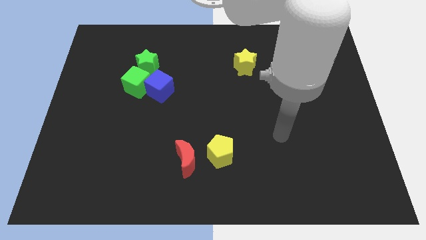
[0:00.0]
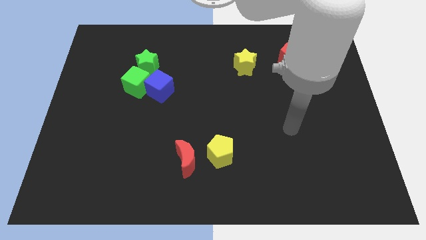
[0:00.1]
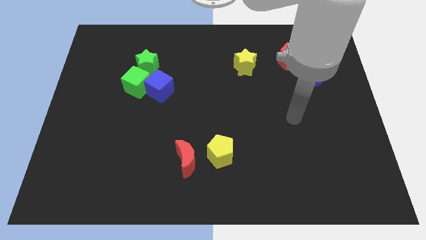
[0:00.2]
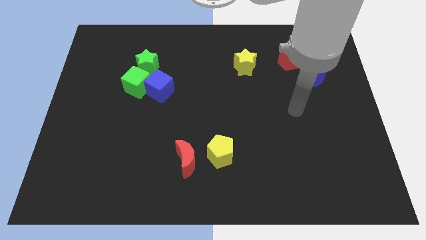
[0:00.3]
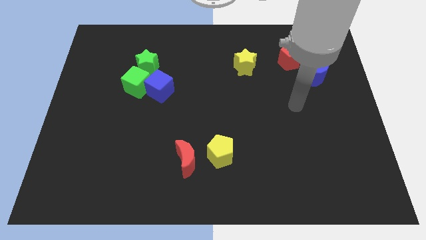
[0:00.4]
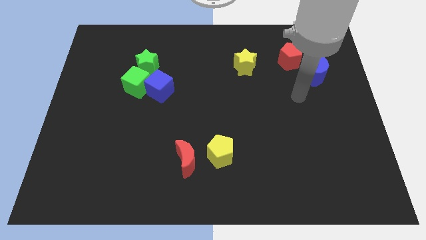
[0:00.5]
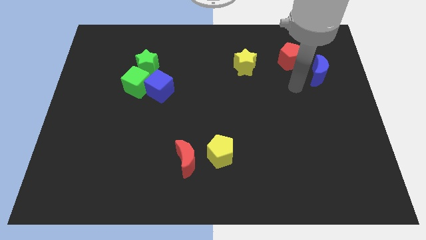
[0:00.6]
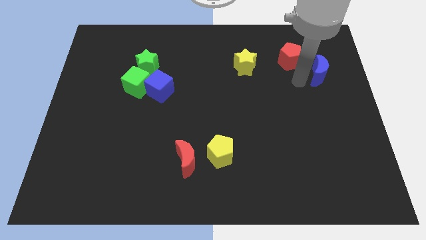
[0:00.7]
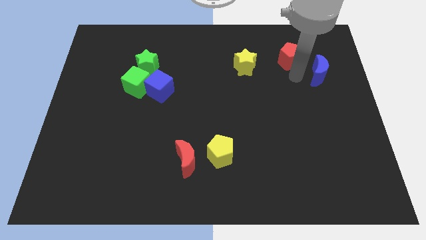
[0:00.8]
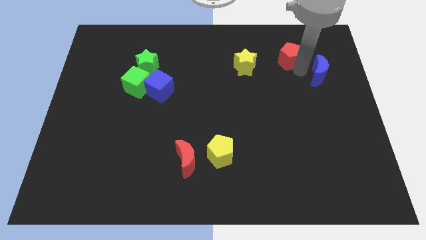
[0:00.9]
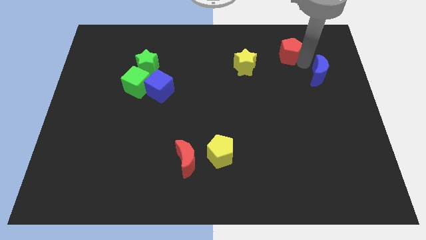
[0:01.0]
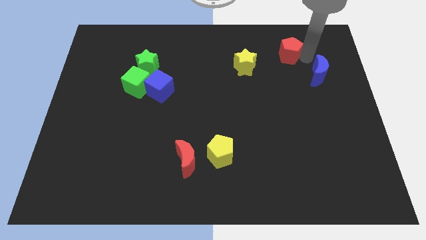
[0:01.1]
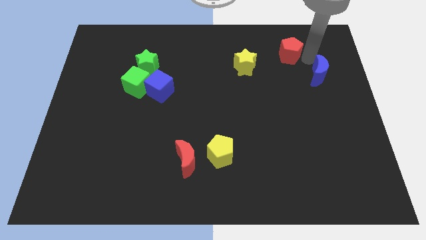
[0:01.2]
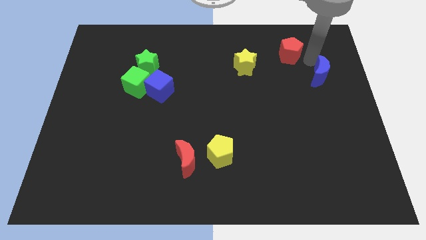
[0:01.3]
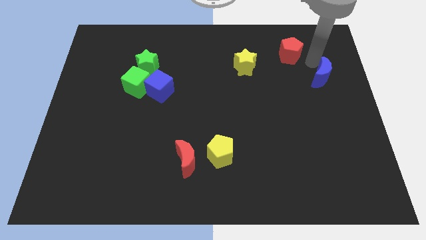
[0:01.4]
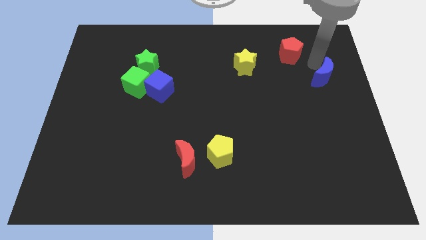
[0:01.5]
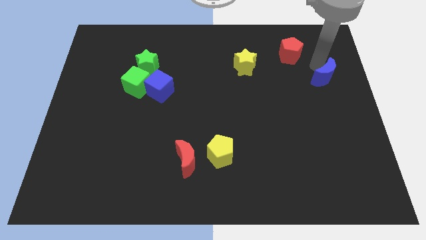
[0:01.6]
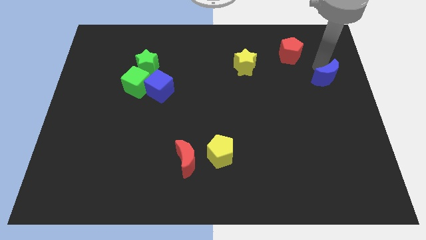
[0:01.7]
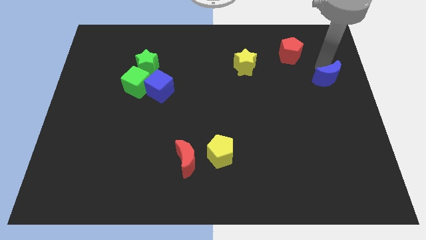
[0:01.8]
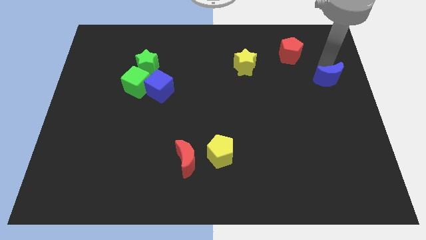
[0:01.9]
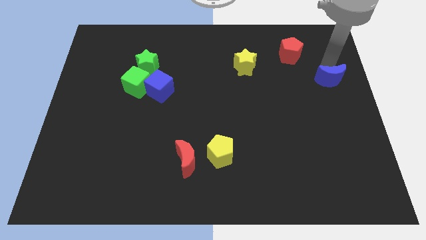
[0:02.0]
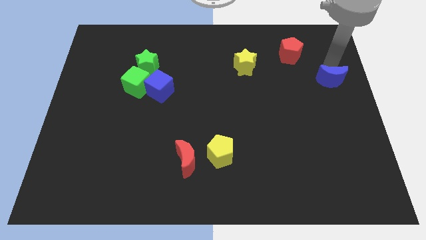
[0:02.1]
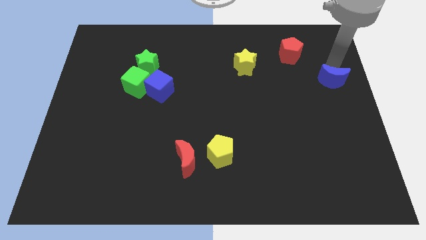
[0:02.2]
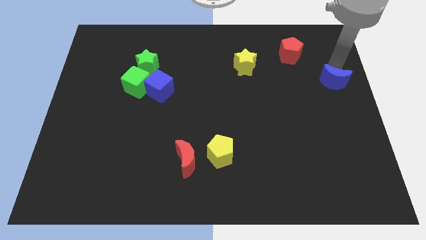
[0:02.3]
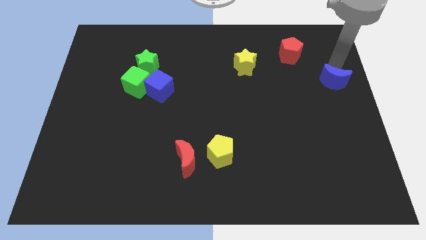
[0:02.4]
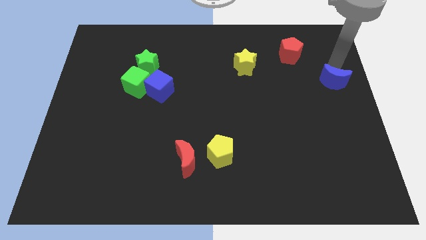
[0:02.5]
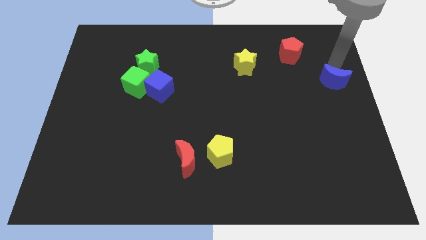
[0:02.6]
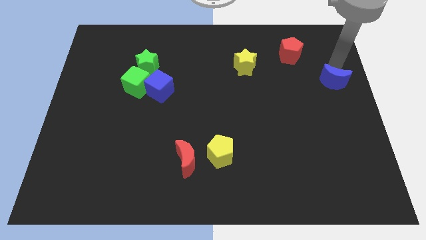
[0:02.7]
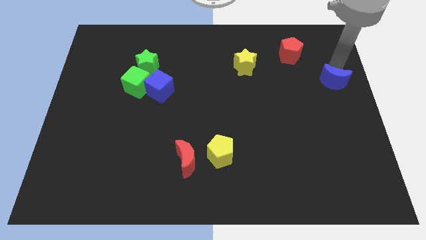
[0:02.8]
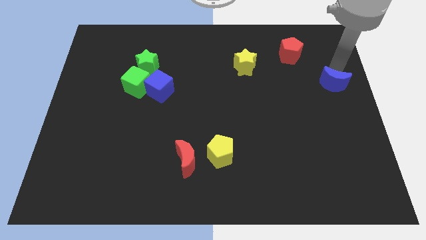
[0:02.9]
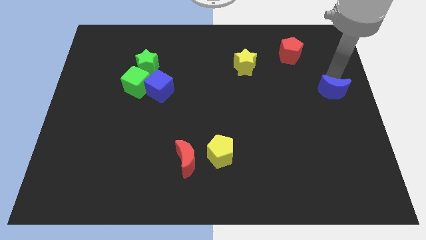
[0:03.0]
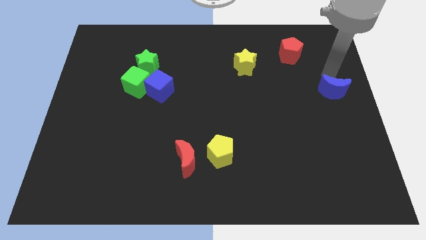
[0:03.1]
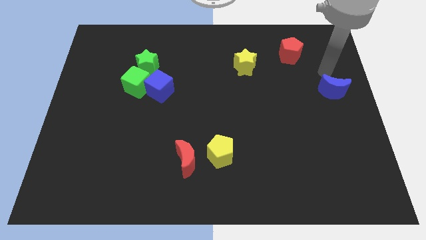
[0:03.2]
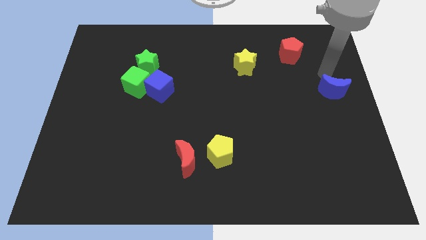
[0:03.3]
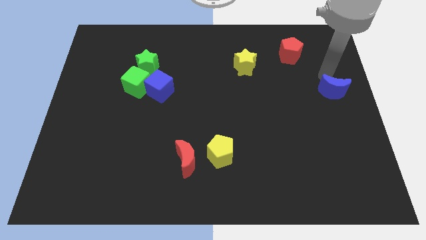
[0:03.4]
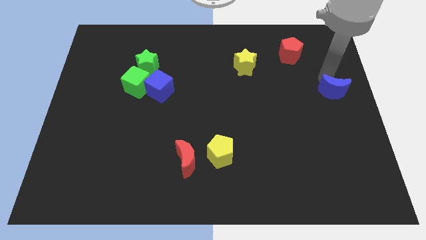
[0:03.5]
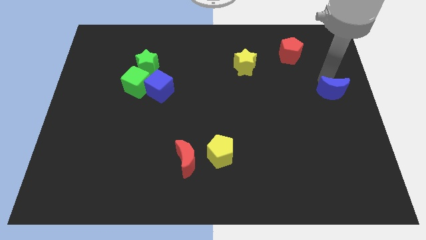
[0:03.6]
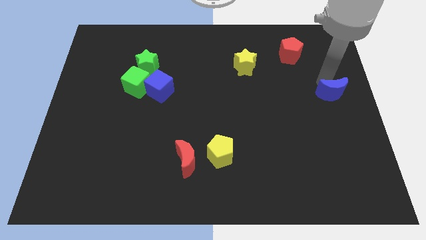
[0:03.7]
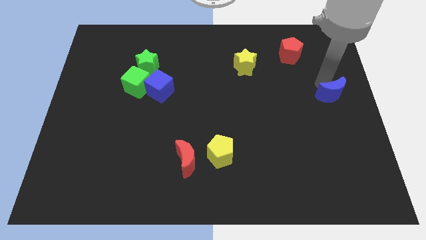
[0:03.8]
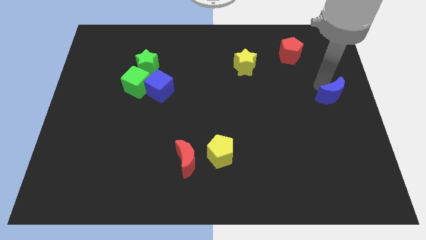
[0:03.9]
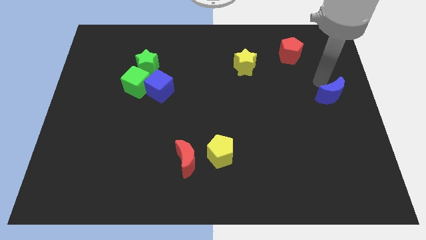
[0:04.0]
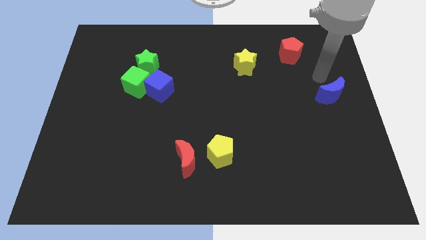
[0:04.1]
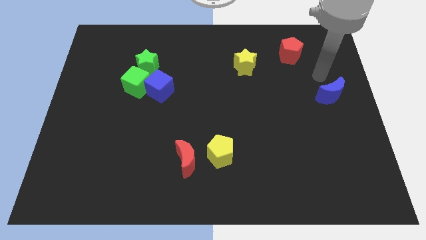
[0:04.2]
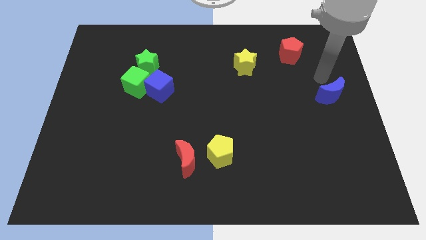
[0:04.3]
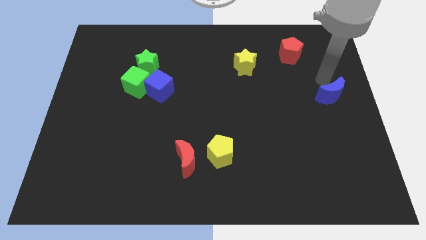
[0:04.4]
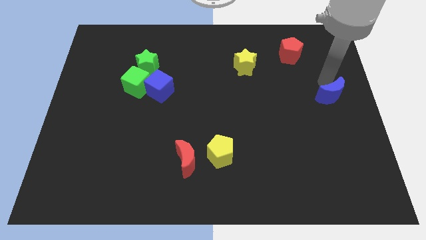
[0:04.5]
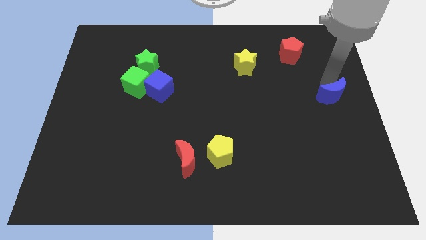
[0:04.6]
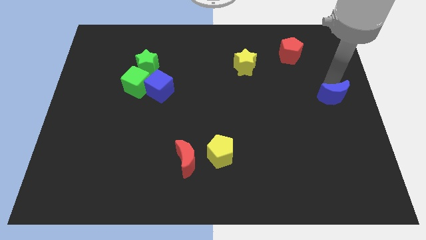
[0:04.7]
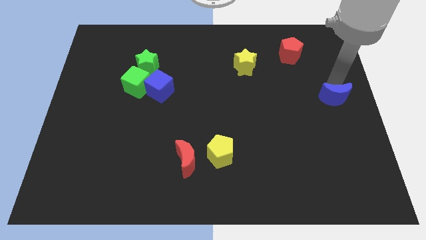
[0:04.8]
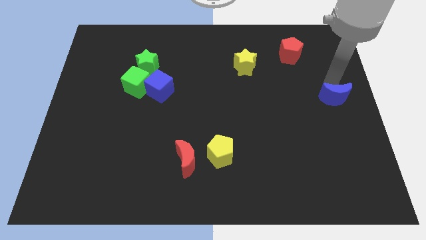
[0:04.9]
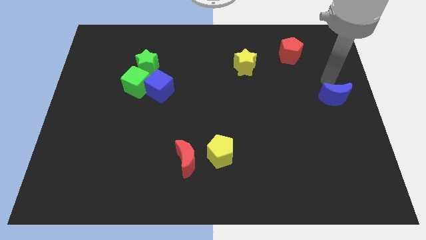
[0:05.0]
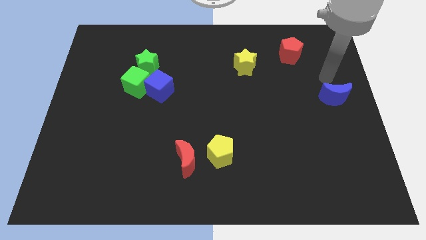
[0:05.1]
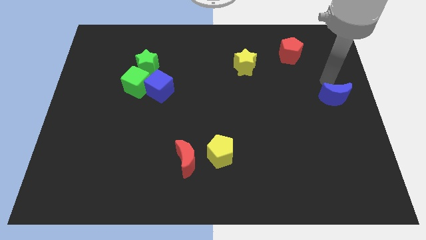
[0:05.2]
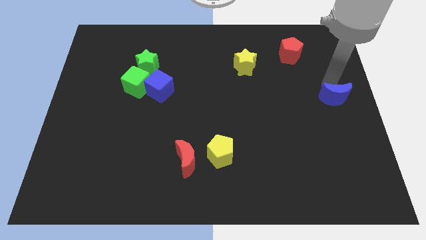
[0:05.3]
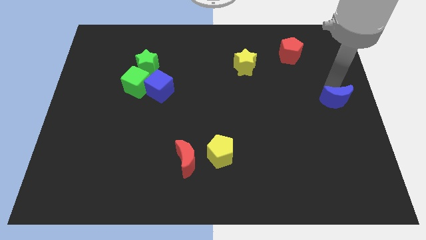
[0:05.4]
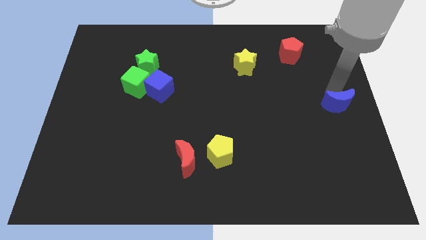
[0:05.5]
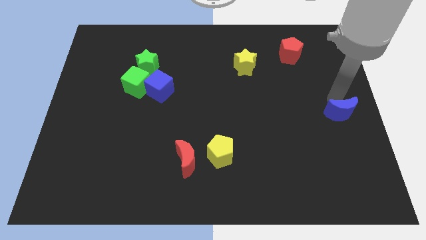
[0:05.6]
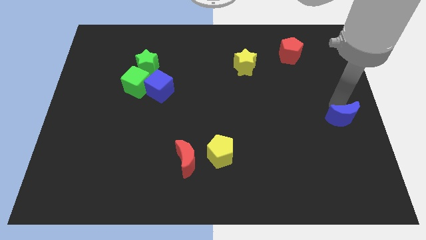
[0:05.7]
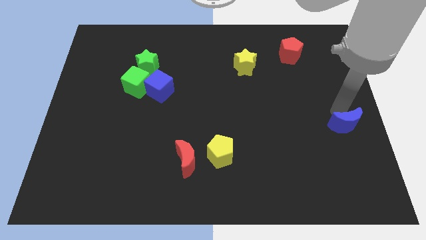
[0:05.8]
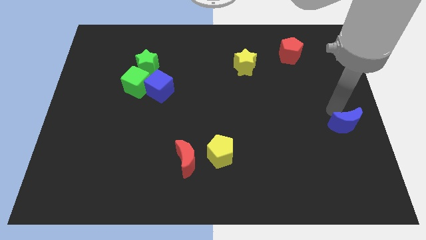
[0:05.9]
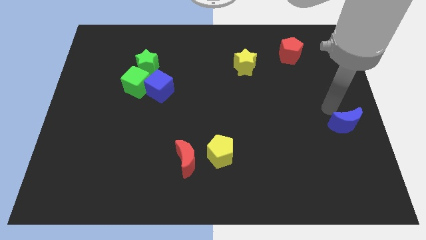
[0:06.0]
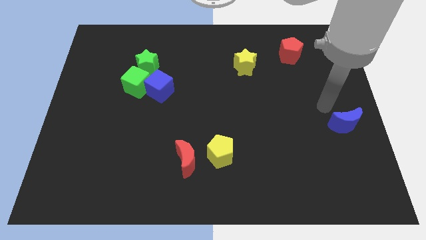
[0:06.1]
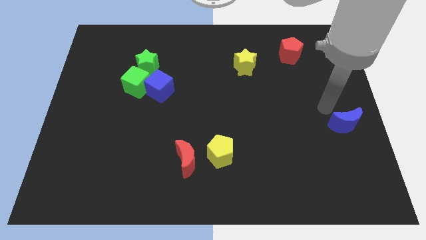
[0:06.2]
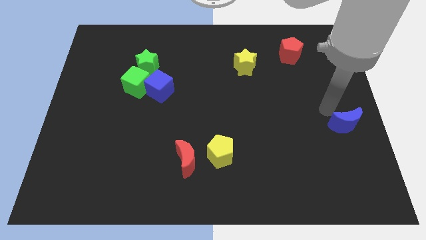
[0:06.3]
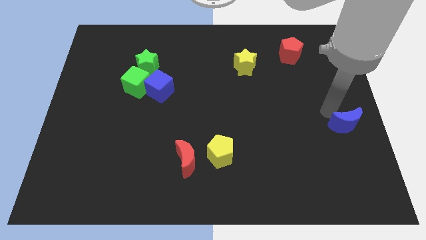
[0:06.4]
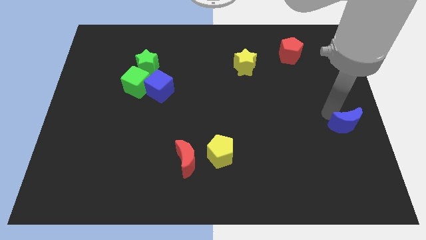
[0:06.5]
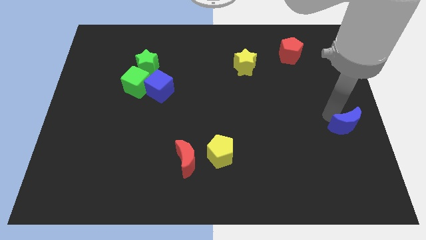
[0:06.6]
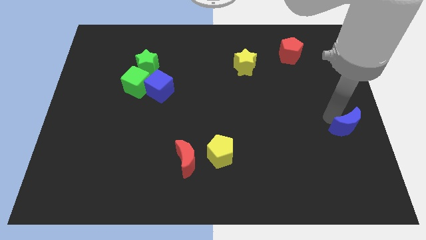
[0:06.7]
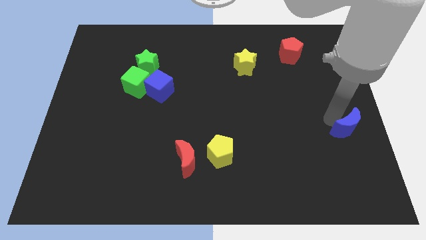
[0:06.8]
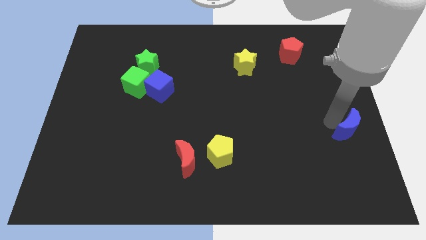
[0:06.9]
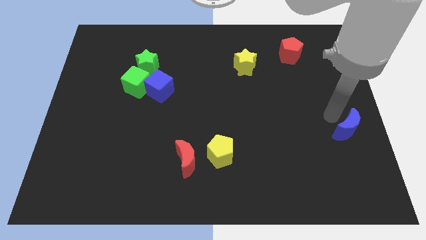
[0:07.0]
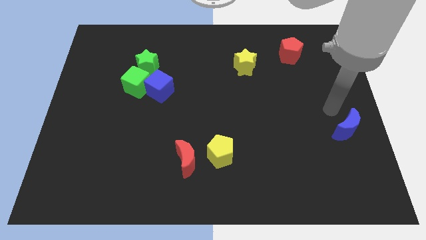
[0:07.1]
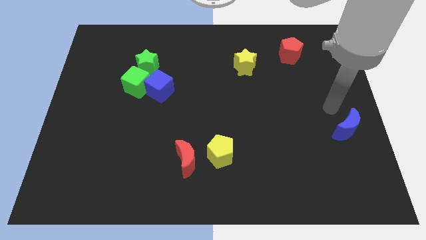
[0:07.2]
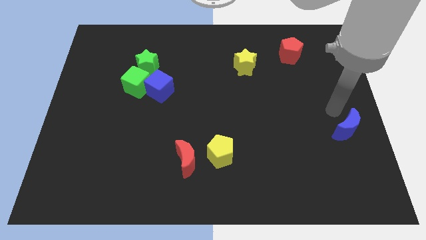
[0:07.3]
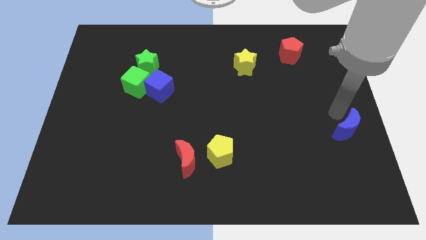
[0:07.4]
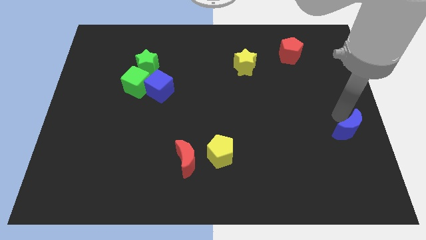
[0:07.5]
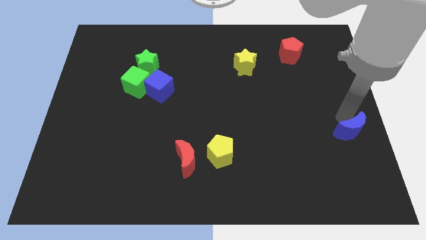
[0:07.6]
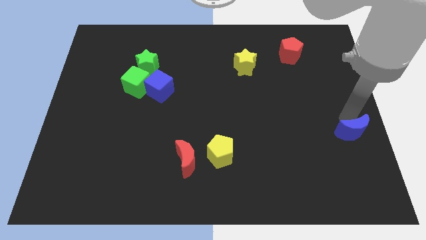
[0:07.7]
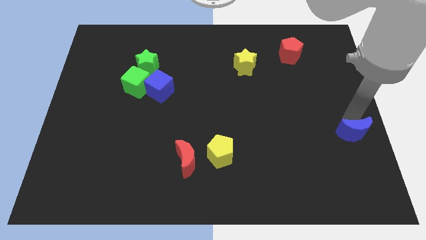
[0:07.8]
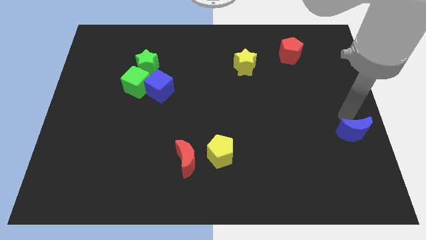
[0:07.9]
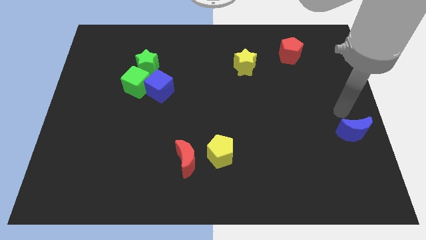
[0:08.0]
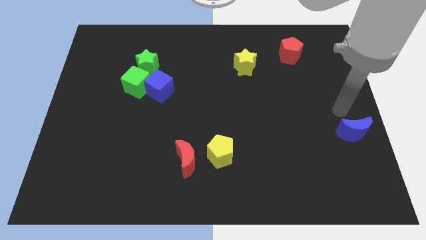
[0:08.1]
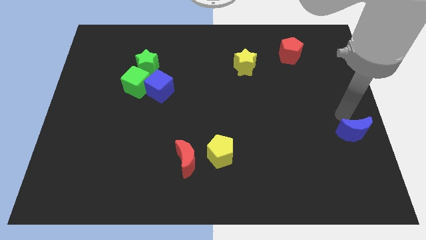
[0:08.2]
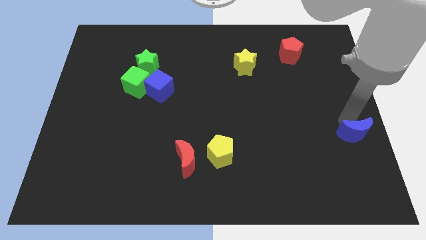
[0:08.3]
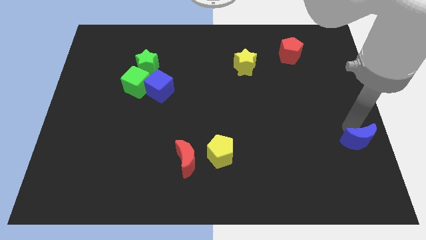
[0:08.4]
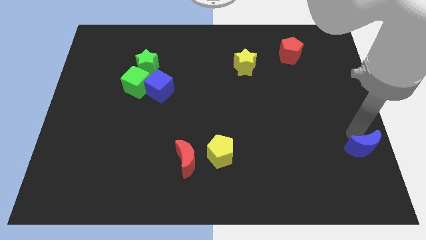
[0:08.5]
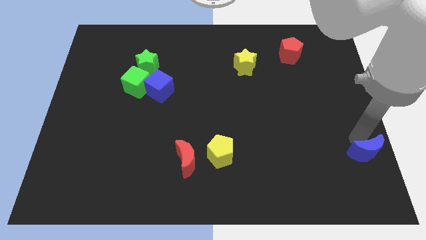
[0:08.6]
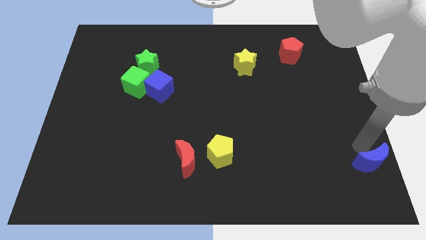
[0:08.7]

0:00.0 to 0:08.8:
slide the blue moon to the bottom right
